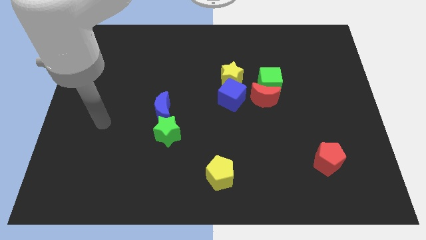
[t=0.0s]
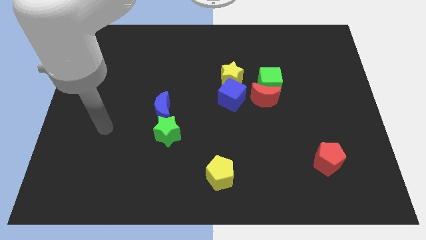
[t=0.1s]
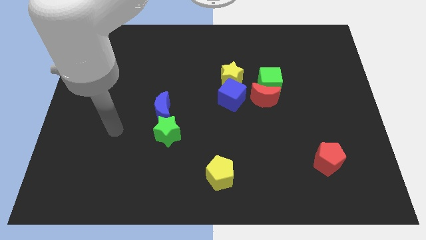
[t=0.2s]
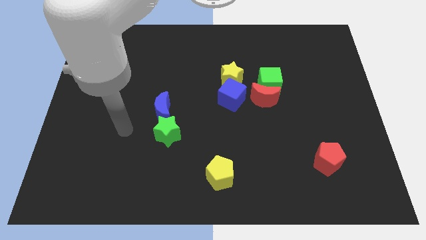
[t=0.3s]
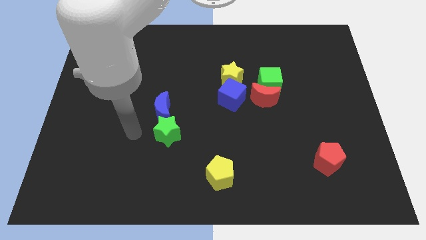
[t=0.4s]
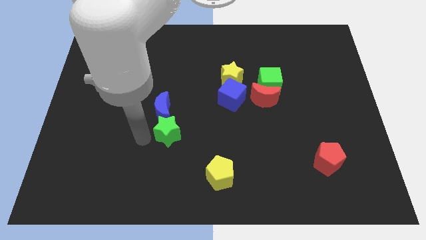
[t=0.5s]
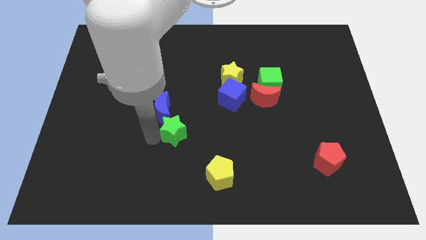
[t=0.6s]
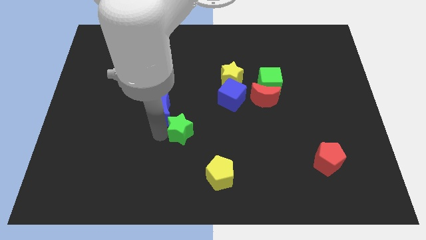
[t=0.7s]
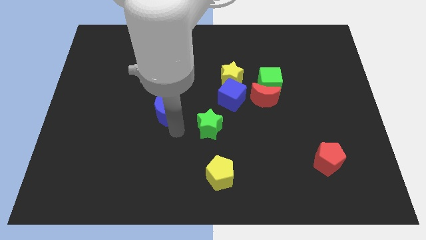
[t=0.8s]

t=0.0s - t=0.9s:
pull the blue moon apart from the green star

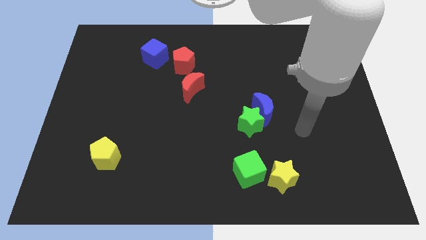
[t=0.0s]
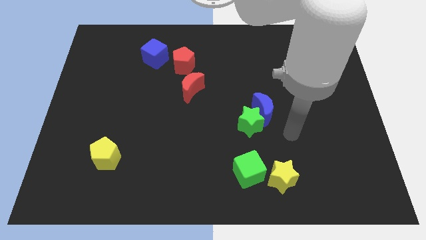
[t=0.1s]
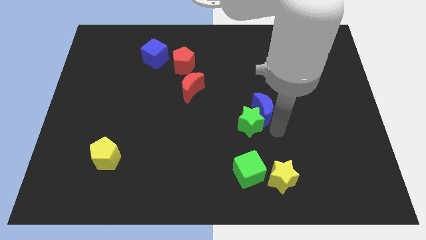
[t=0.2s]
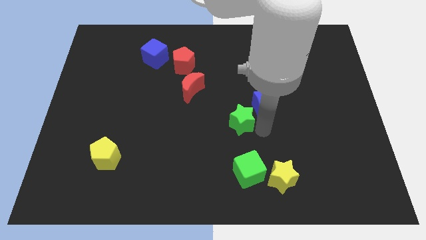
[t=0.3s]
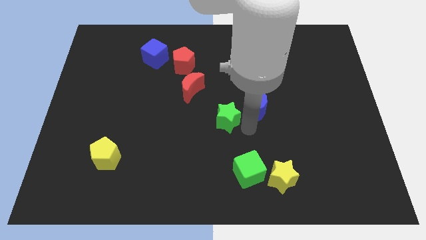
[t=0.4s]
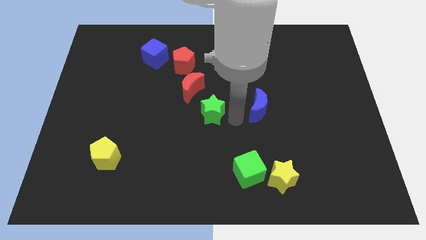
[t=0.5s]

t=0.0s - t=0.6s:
move the blue moon away from the green star

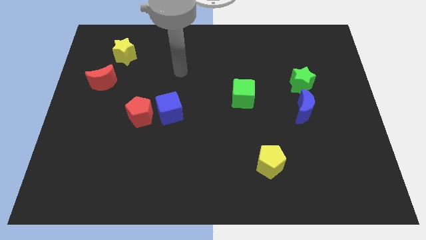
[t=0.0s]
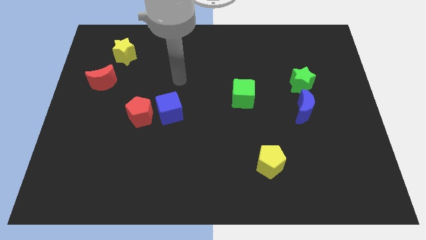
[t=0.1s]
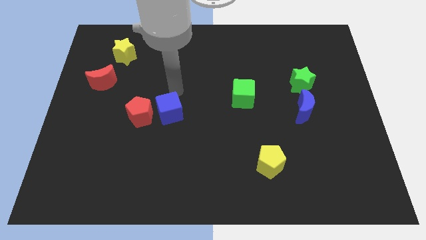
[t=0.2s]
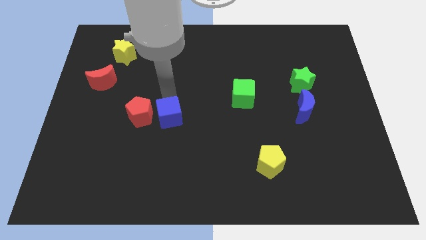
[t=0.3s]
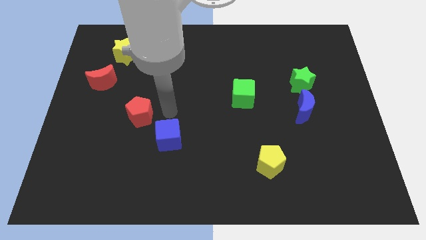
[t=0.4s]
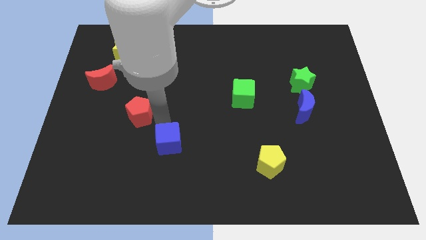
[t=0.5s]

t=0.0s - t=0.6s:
separate the red pentagon from the blue cube

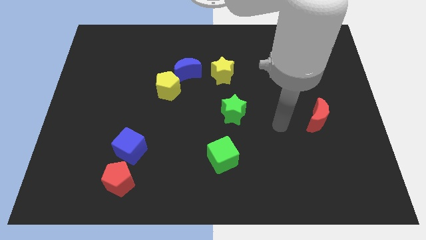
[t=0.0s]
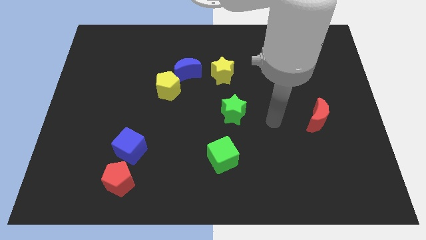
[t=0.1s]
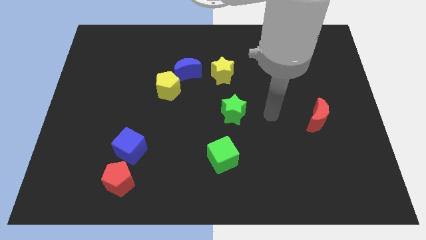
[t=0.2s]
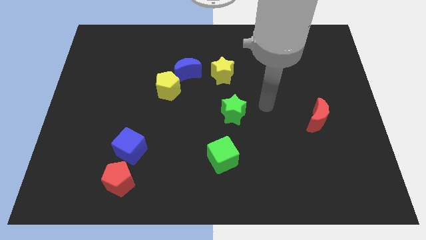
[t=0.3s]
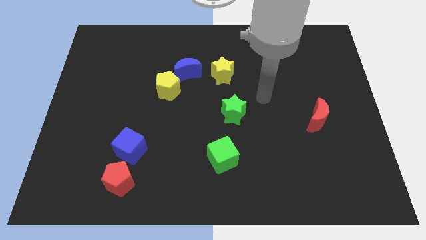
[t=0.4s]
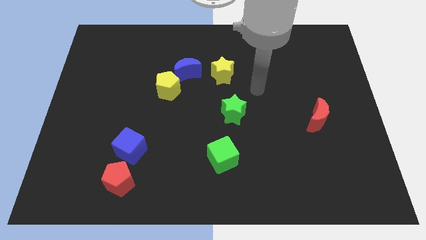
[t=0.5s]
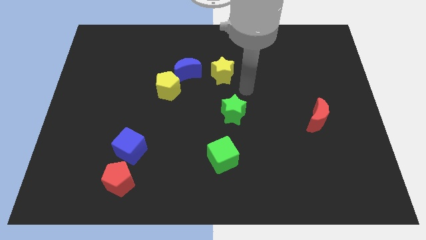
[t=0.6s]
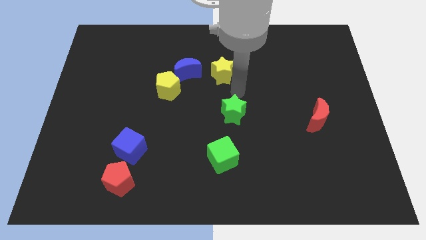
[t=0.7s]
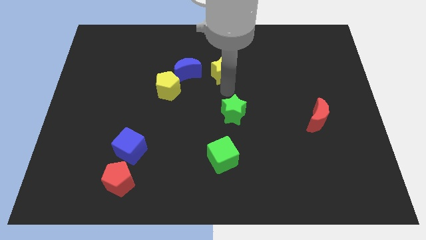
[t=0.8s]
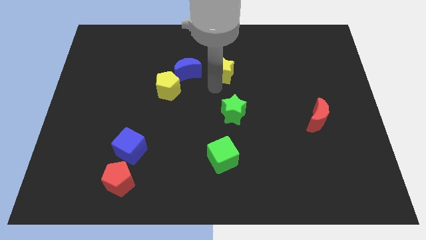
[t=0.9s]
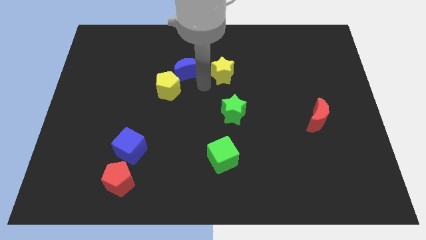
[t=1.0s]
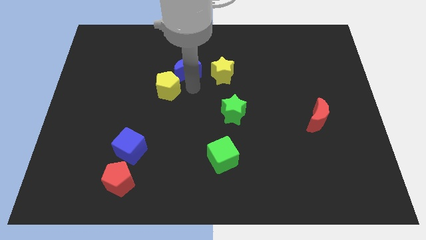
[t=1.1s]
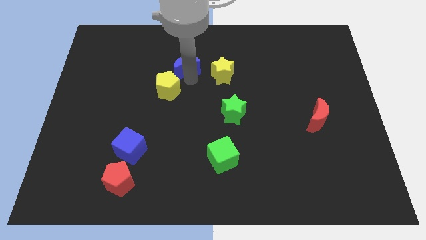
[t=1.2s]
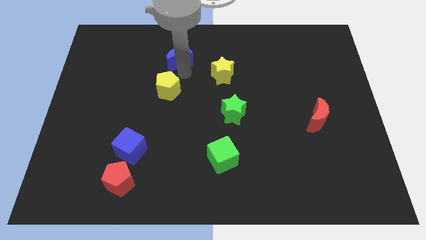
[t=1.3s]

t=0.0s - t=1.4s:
move the yellow pentagon away from the blue moon

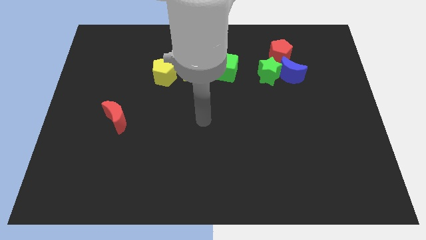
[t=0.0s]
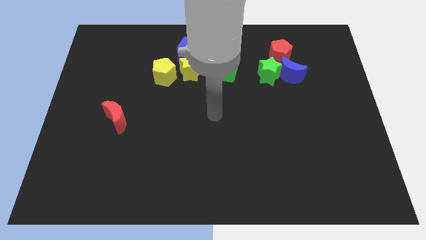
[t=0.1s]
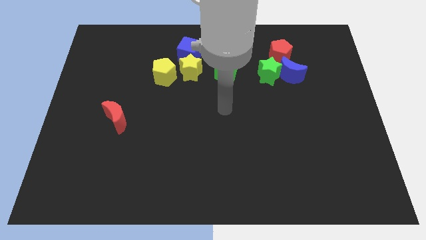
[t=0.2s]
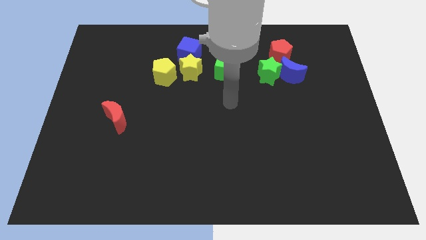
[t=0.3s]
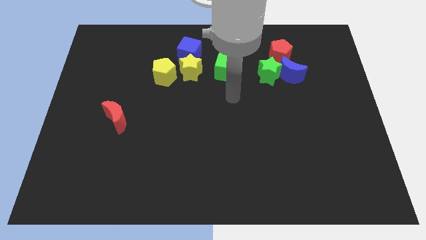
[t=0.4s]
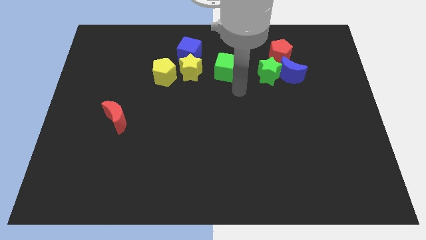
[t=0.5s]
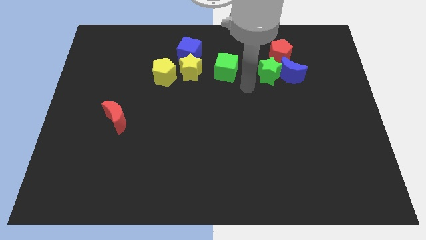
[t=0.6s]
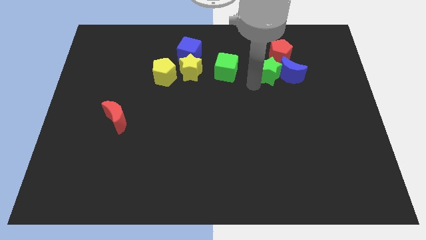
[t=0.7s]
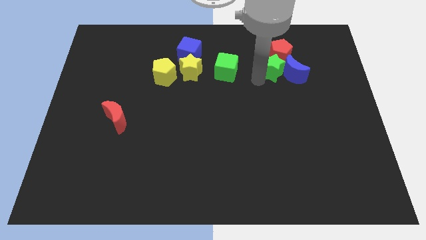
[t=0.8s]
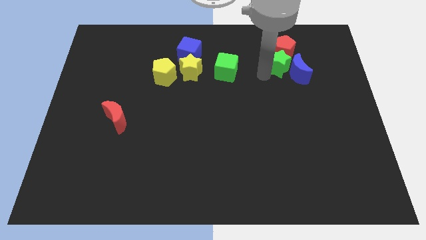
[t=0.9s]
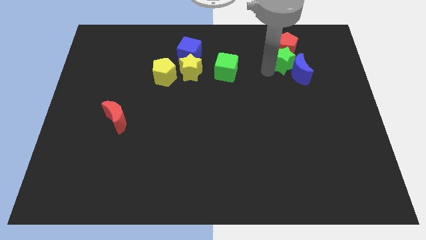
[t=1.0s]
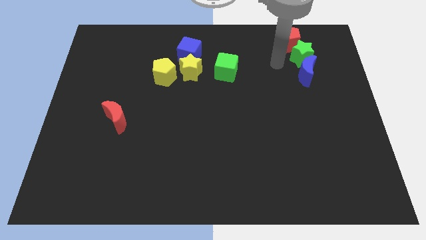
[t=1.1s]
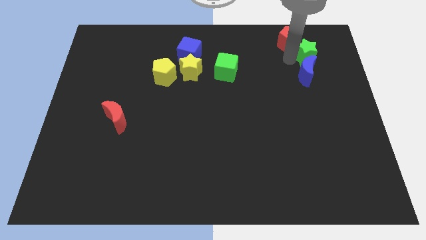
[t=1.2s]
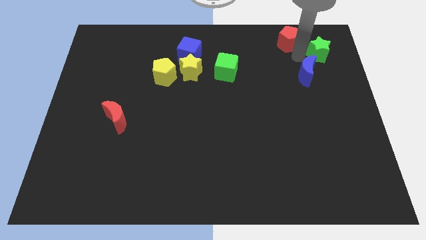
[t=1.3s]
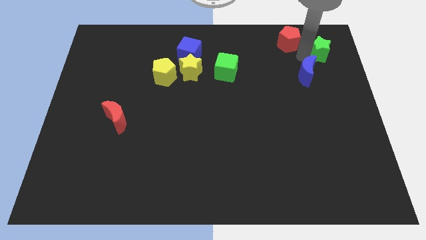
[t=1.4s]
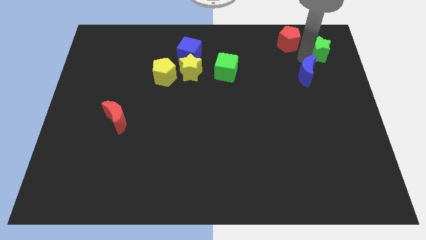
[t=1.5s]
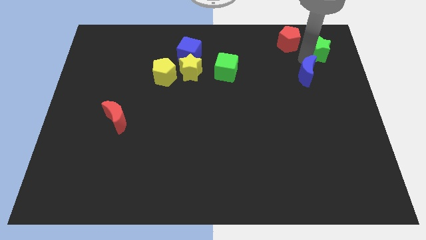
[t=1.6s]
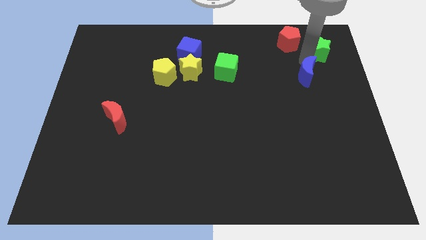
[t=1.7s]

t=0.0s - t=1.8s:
pull the blue moon apart from the green star and red pentagon

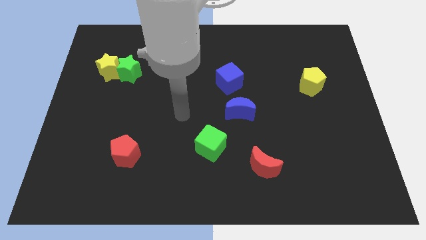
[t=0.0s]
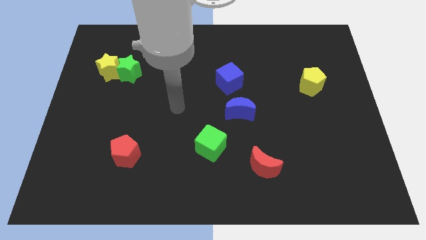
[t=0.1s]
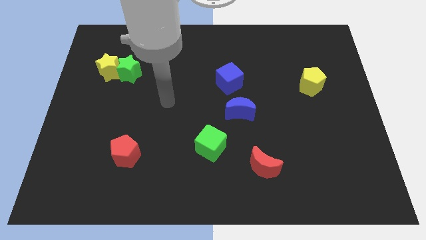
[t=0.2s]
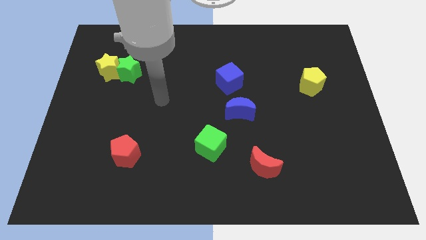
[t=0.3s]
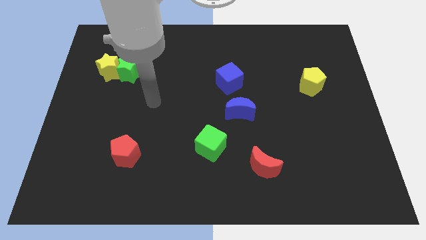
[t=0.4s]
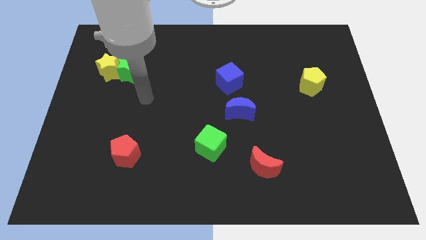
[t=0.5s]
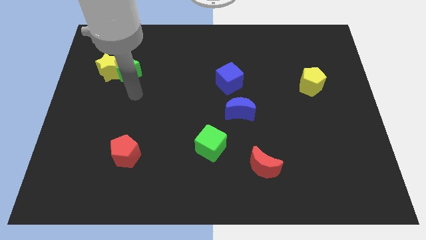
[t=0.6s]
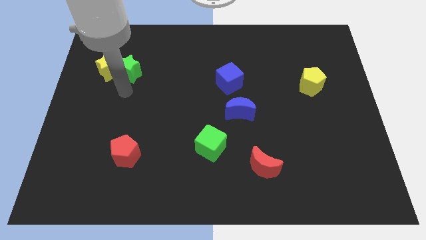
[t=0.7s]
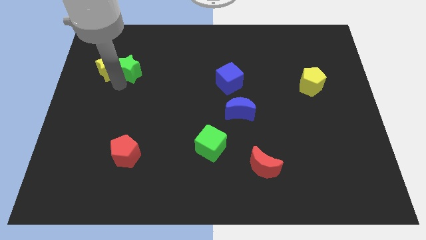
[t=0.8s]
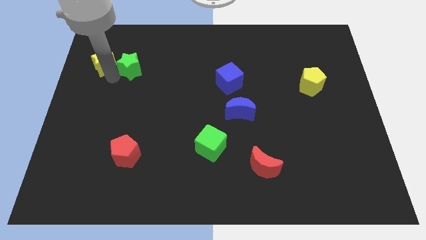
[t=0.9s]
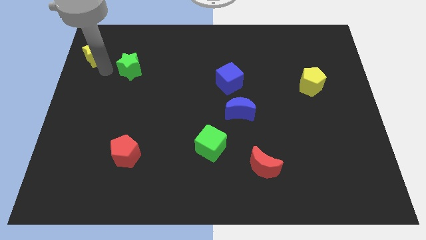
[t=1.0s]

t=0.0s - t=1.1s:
pull the green star apart from the yellow star

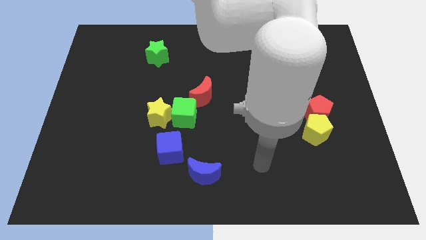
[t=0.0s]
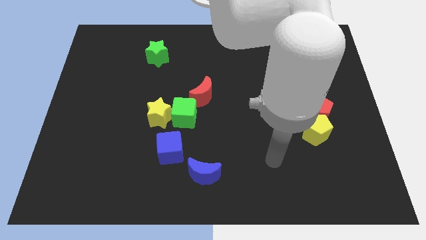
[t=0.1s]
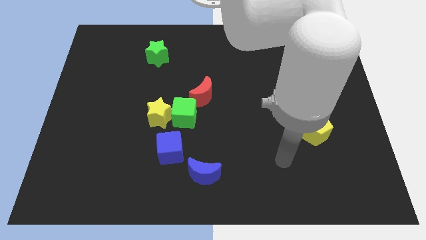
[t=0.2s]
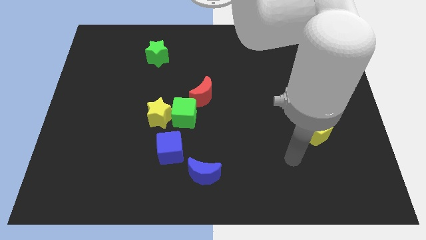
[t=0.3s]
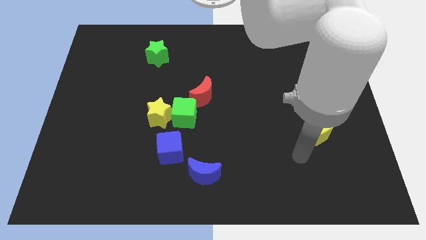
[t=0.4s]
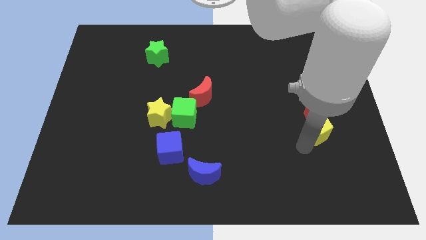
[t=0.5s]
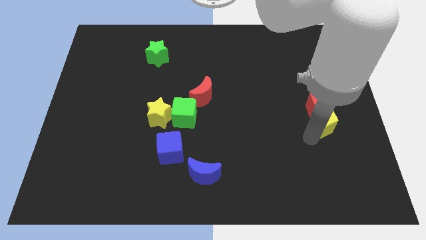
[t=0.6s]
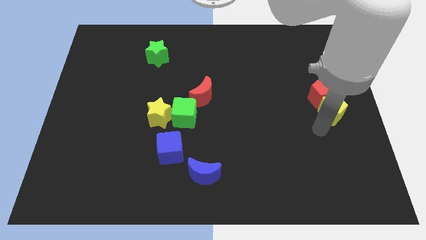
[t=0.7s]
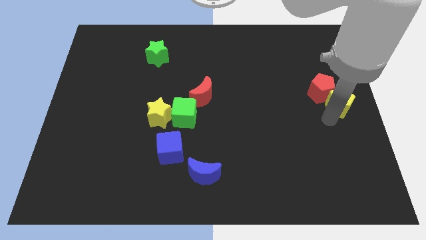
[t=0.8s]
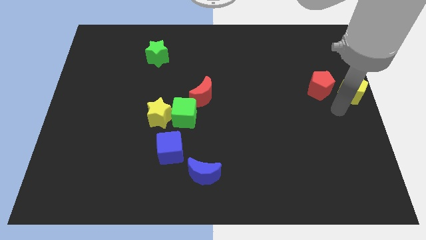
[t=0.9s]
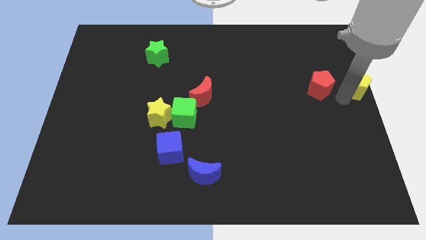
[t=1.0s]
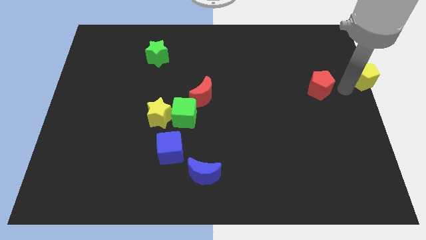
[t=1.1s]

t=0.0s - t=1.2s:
pull the red pentagon apart from the yellow pentagon

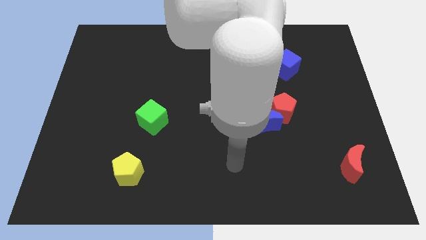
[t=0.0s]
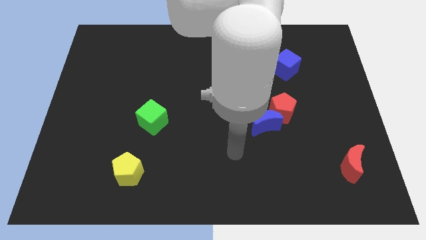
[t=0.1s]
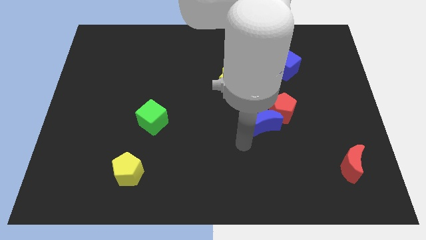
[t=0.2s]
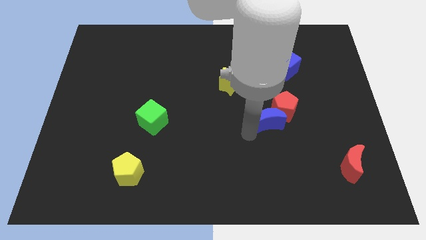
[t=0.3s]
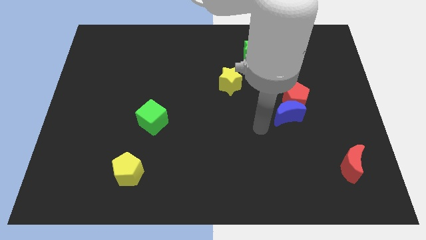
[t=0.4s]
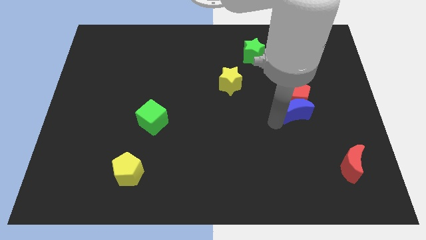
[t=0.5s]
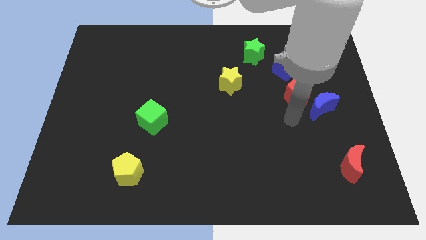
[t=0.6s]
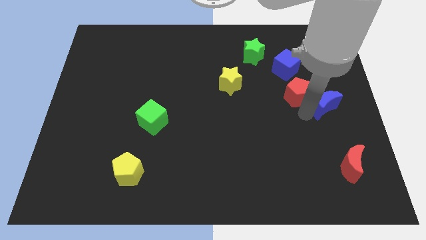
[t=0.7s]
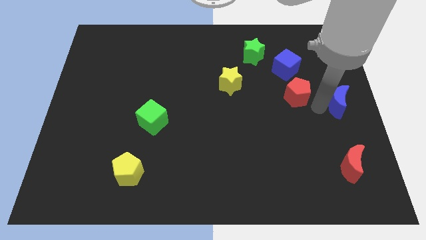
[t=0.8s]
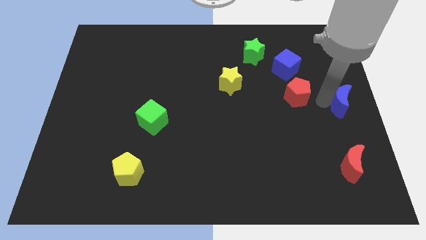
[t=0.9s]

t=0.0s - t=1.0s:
move the red pentagon away from the blue moon

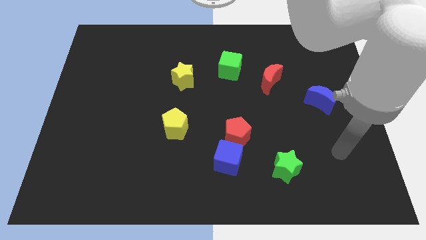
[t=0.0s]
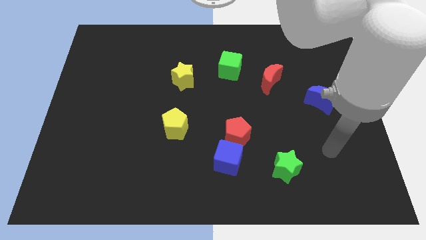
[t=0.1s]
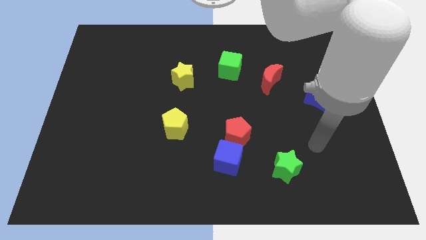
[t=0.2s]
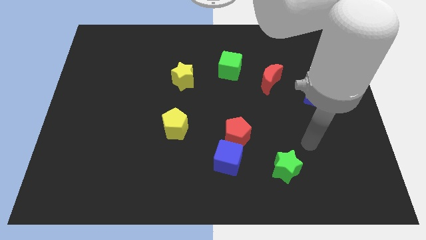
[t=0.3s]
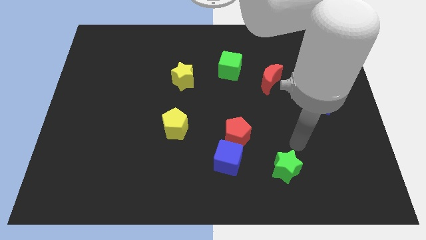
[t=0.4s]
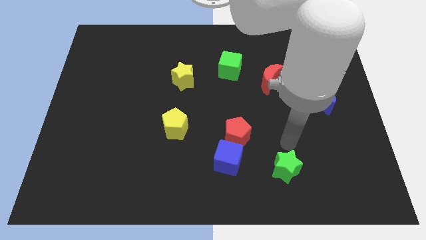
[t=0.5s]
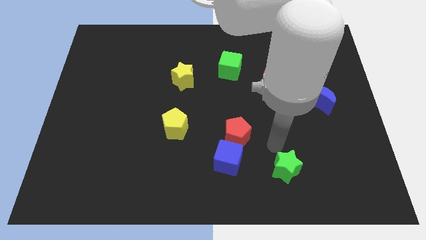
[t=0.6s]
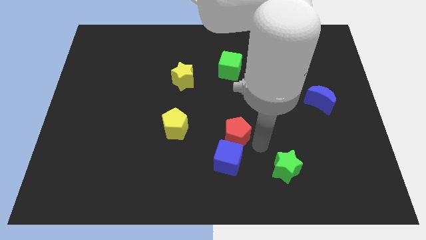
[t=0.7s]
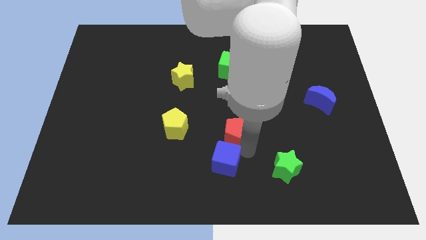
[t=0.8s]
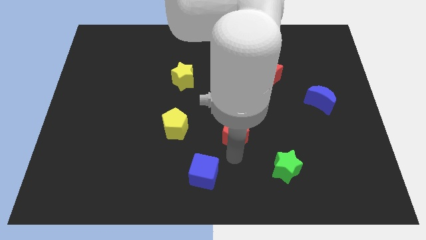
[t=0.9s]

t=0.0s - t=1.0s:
move the red pentagon away from the blue cube
